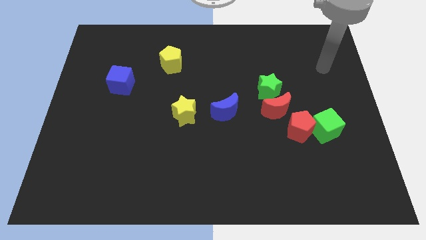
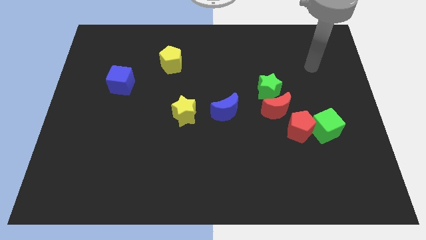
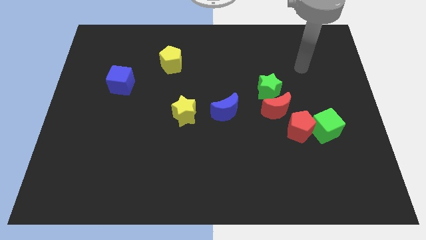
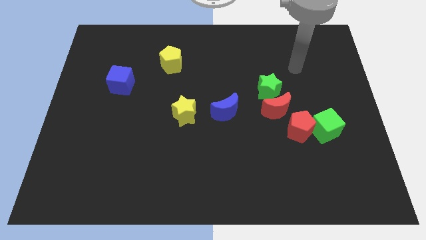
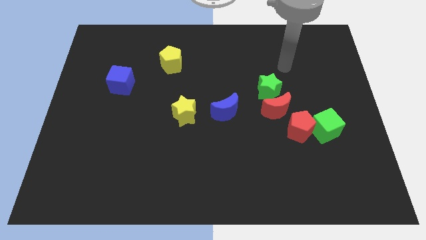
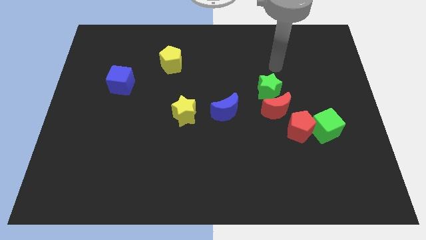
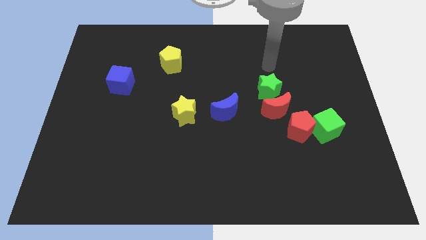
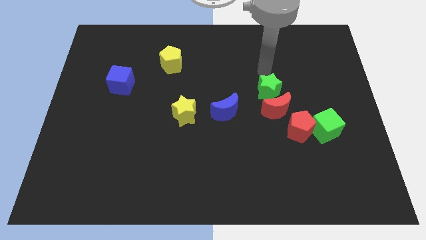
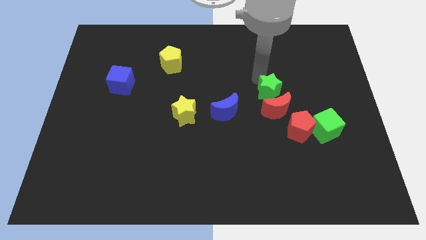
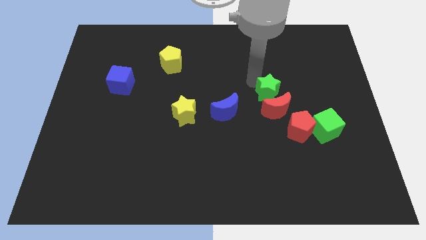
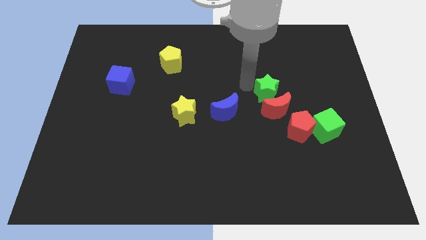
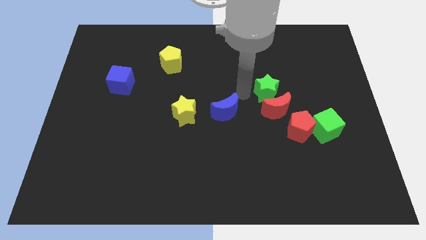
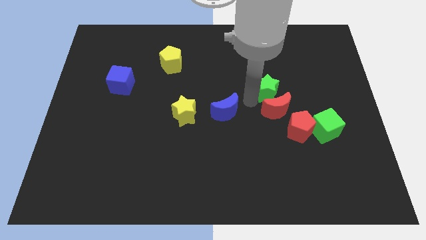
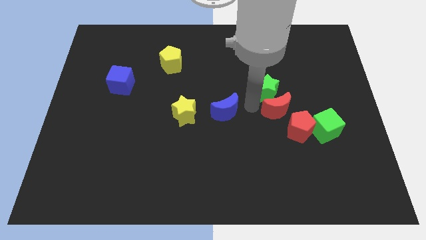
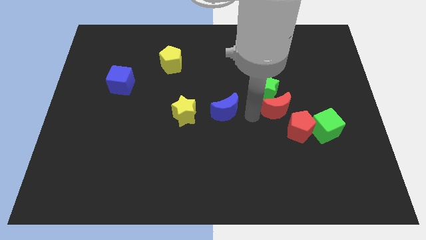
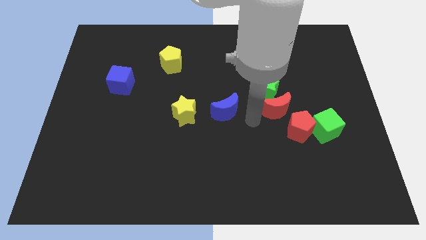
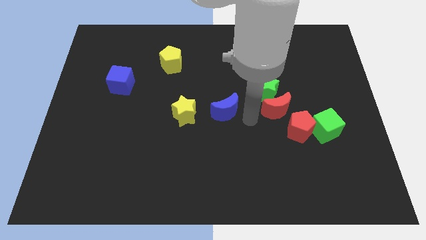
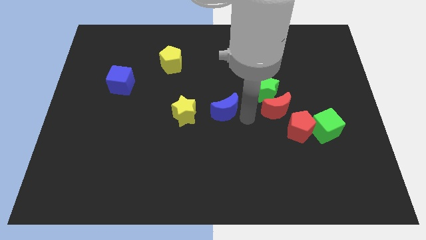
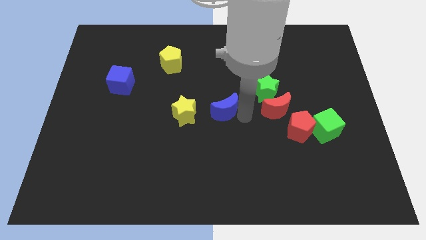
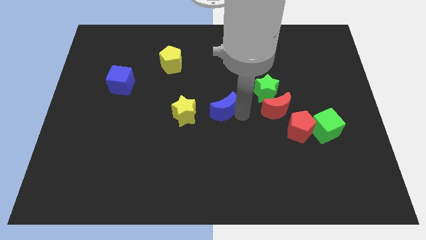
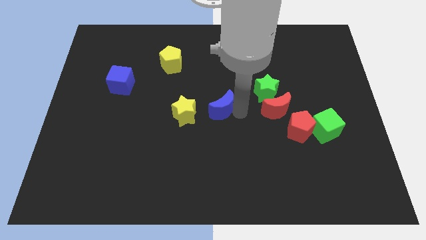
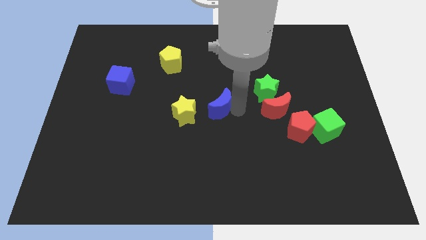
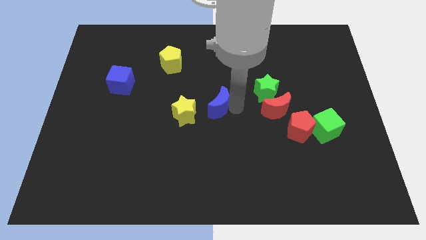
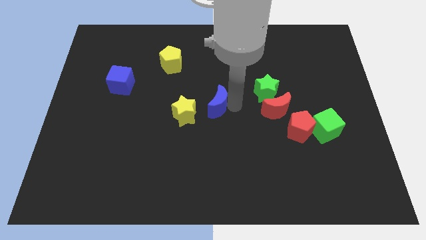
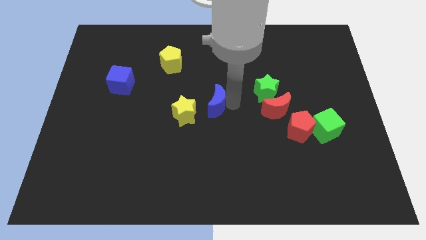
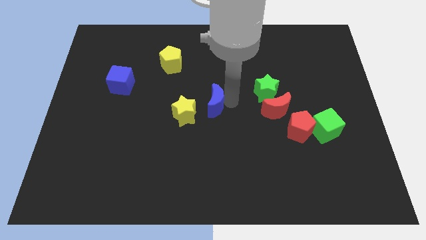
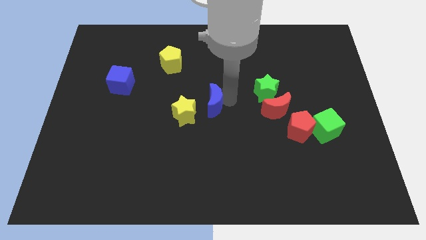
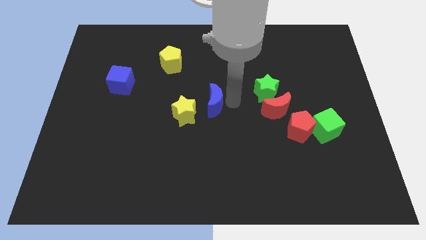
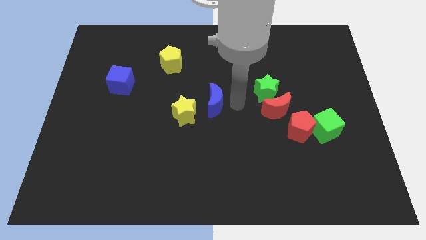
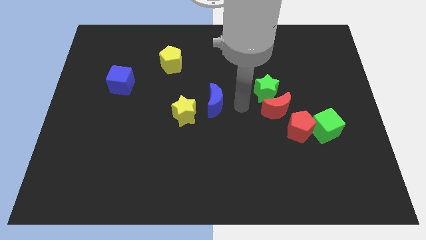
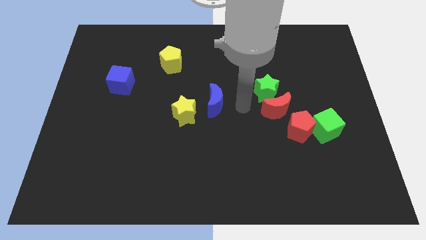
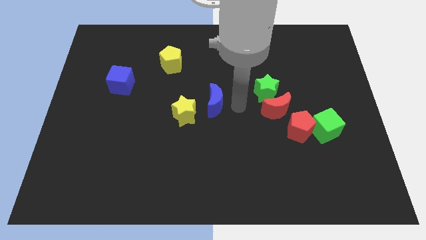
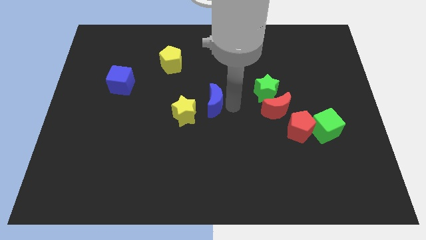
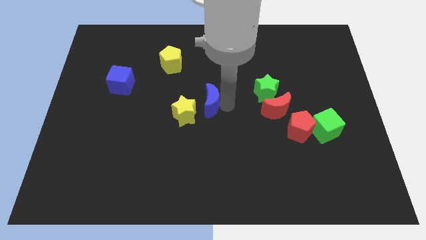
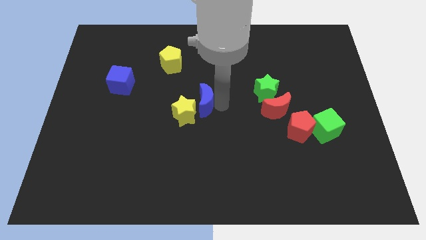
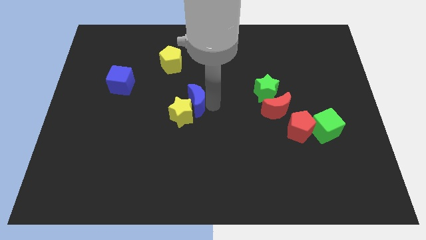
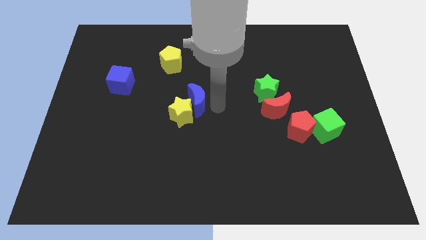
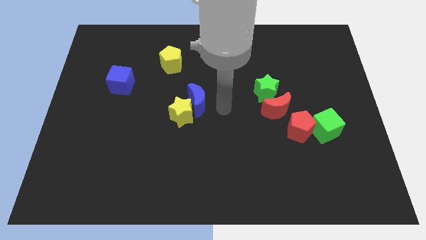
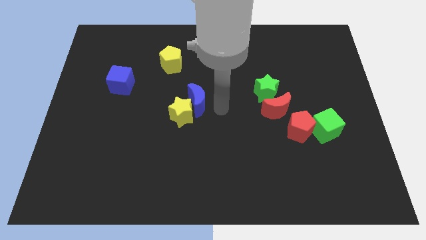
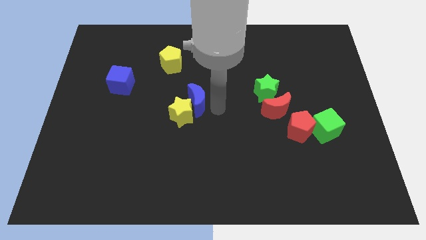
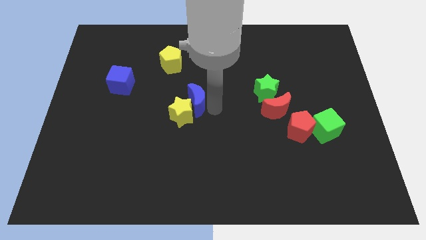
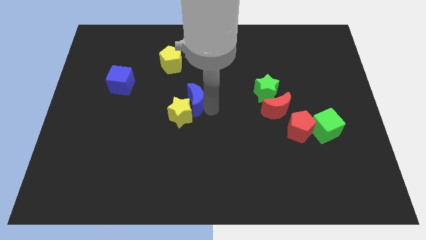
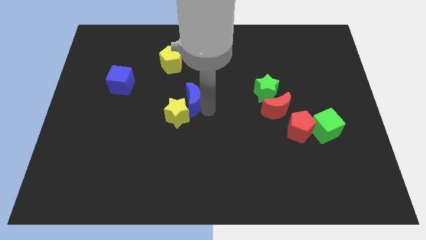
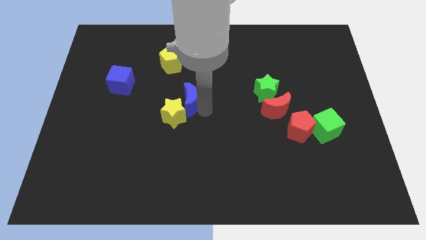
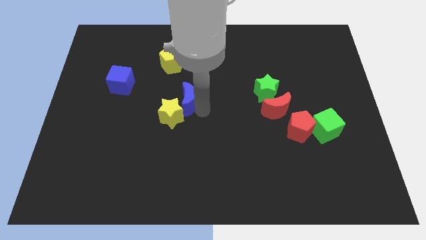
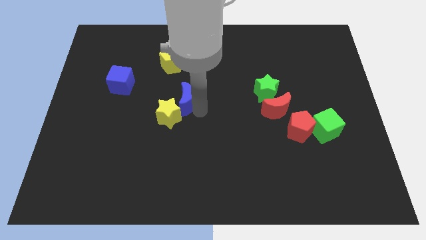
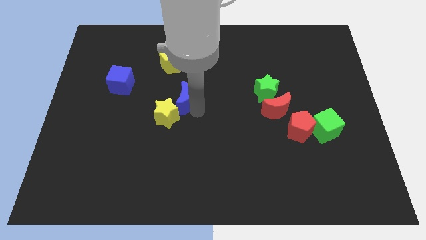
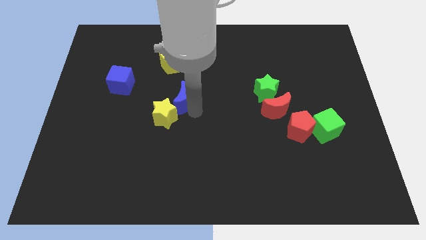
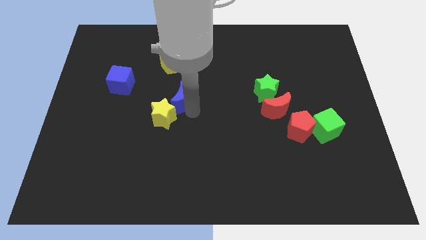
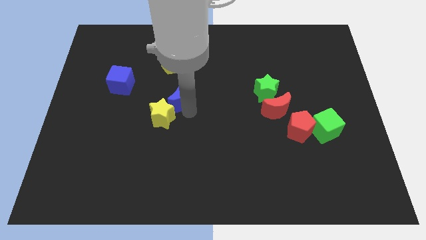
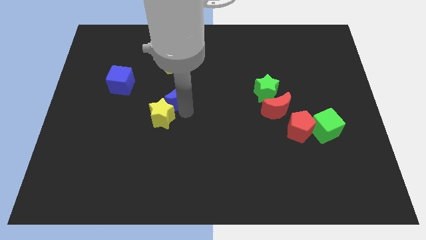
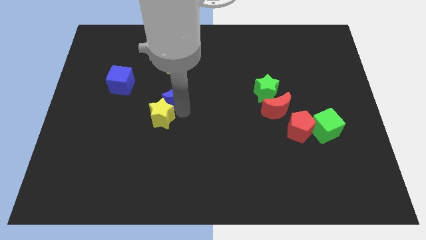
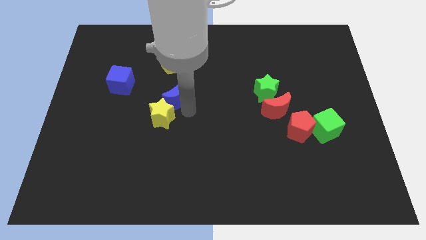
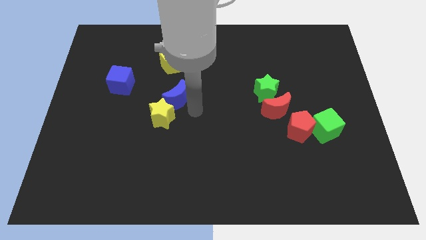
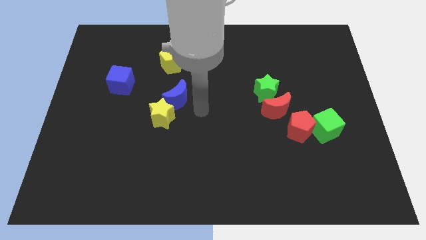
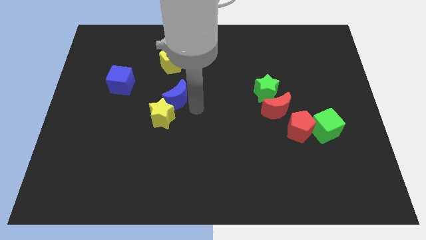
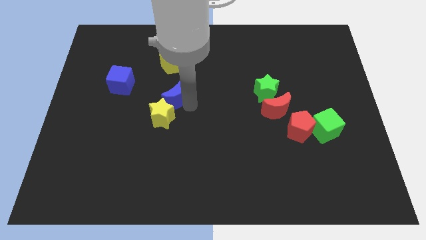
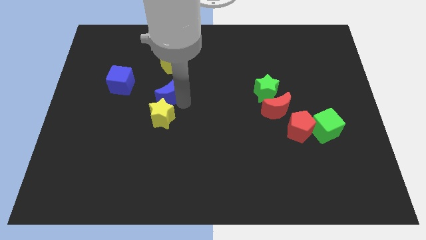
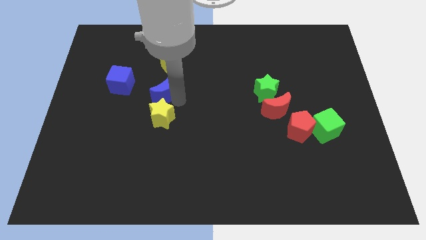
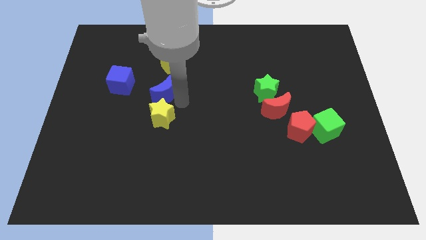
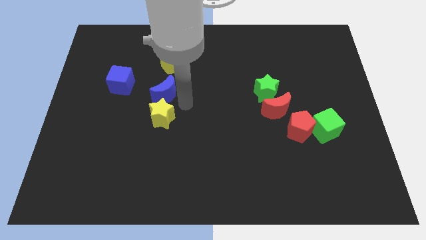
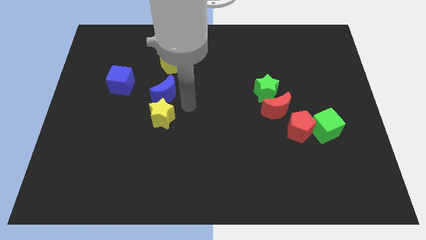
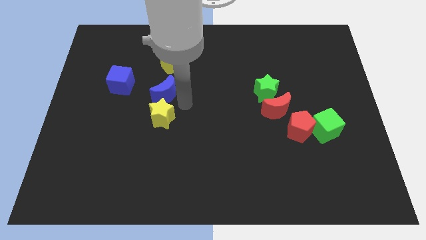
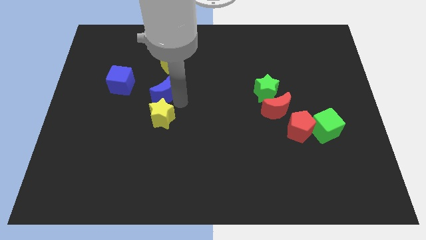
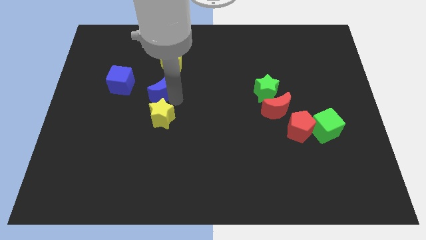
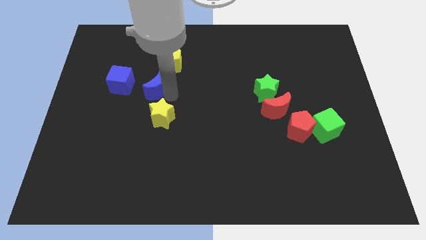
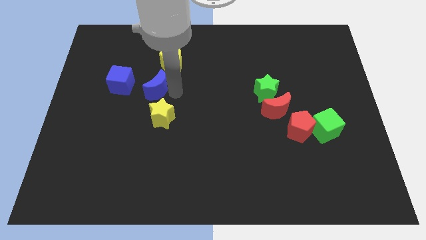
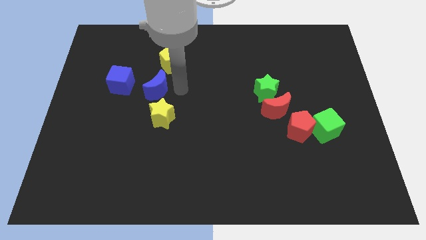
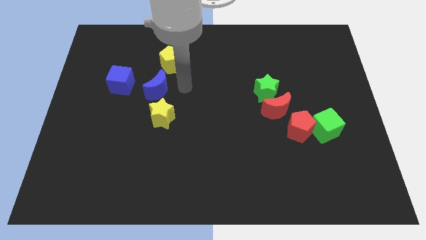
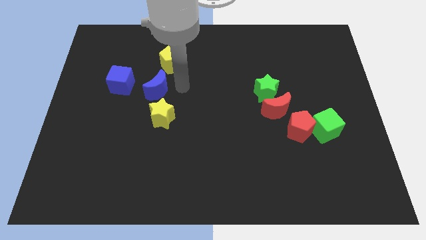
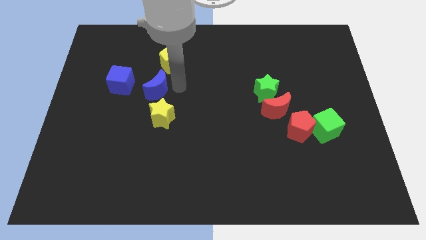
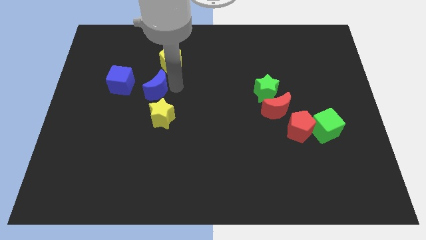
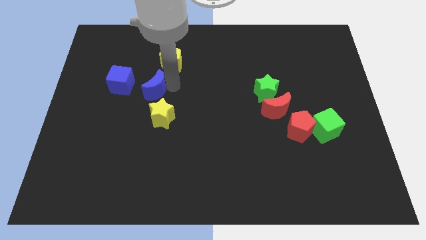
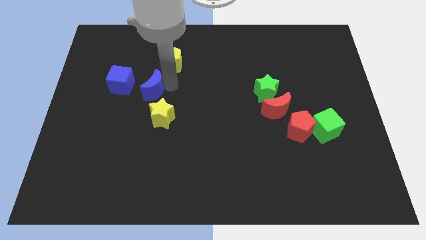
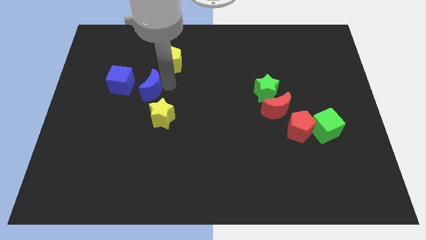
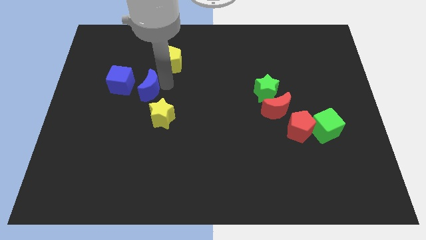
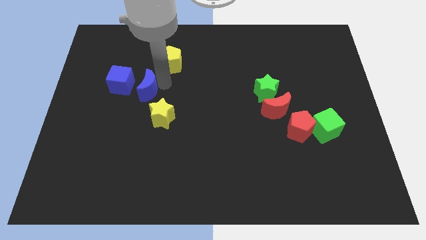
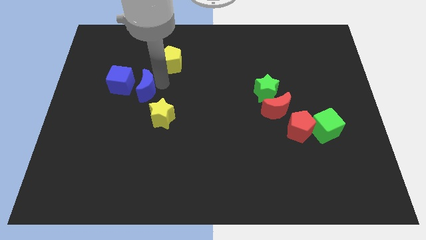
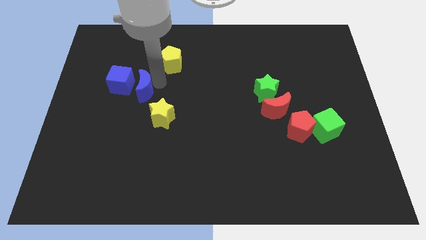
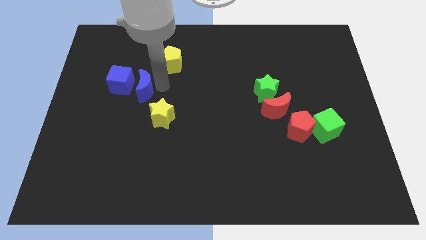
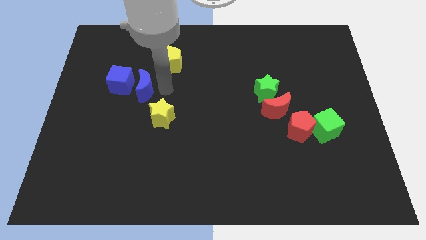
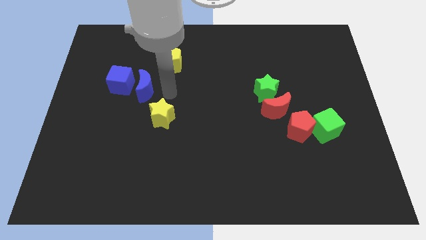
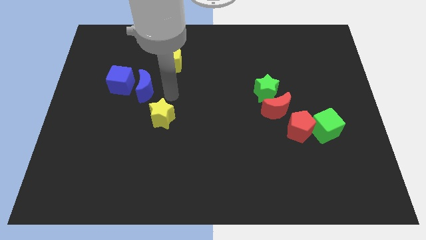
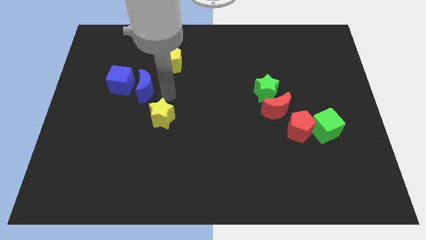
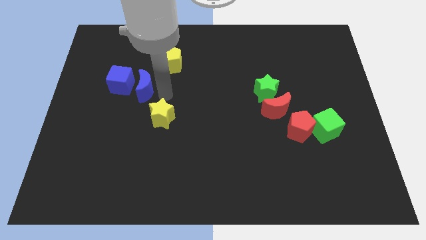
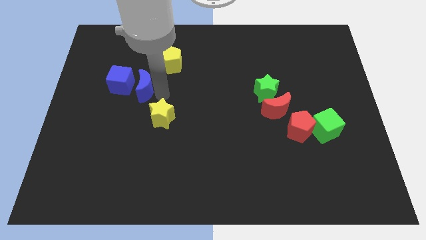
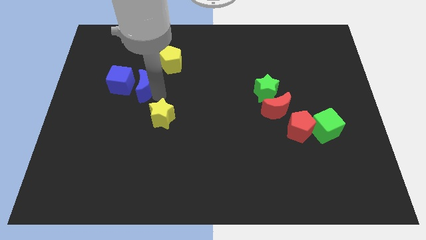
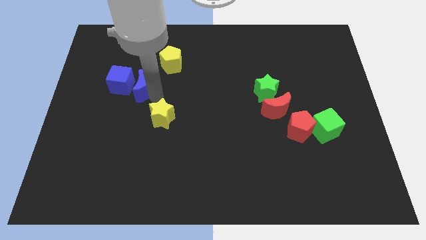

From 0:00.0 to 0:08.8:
move the blue moon to the blue cube
